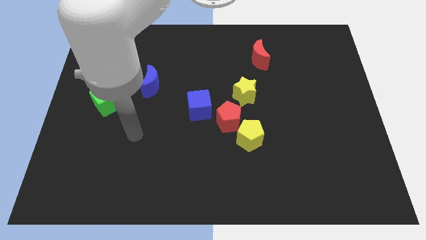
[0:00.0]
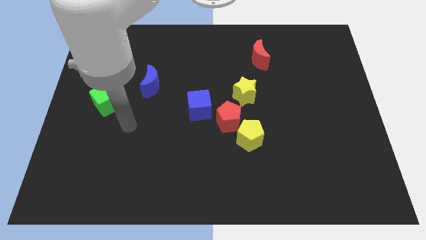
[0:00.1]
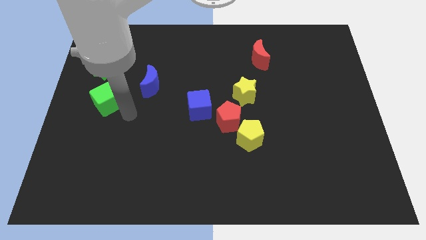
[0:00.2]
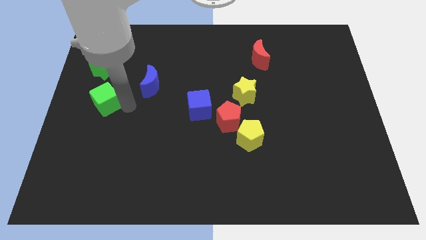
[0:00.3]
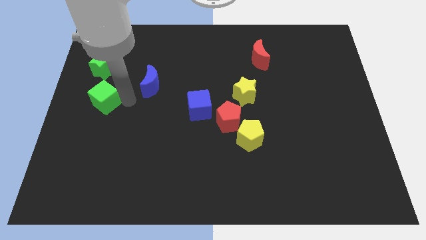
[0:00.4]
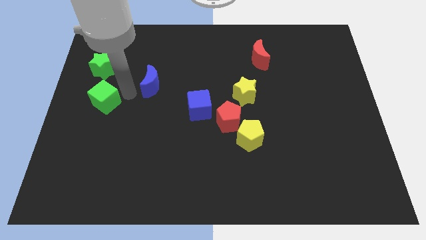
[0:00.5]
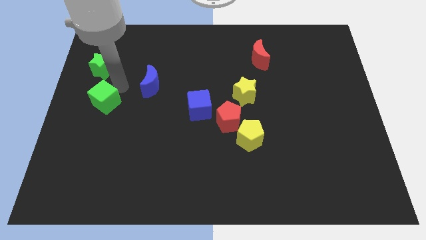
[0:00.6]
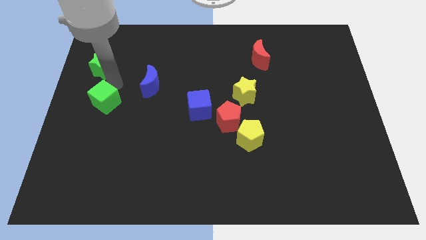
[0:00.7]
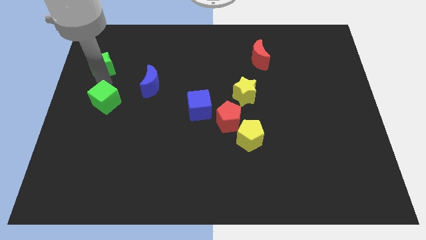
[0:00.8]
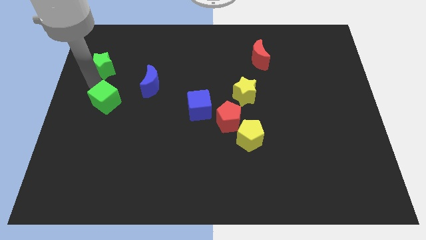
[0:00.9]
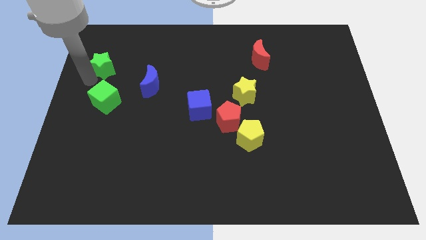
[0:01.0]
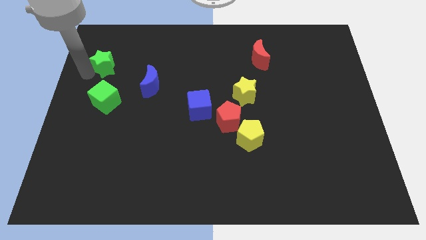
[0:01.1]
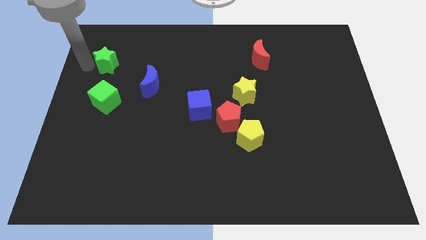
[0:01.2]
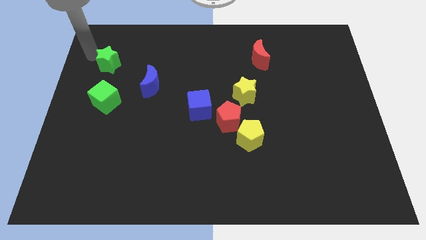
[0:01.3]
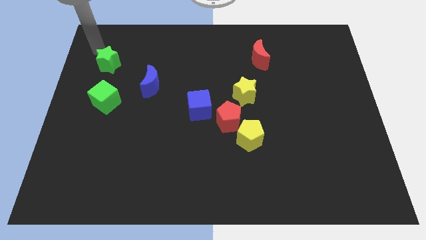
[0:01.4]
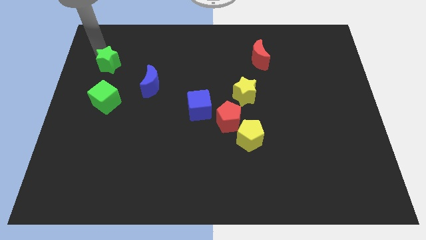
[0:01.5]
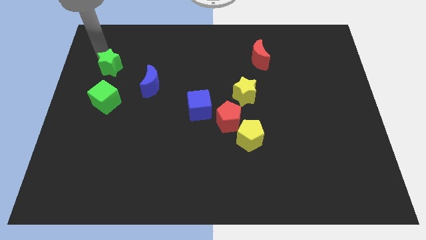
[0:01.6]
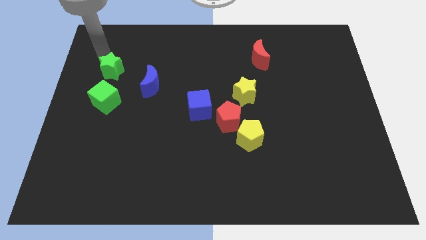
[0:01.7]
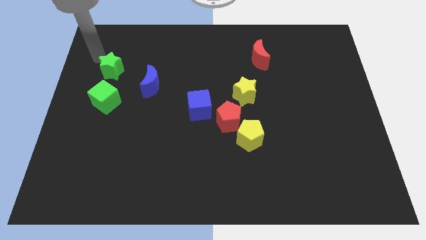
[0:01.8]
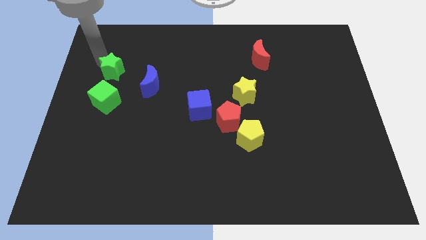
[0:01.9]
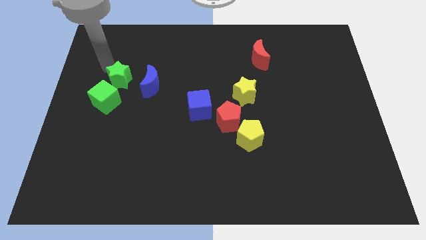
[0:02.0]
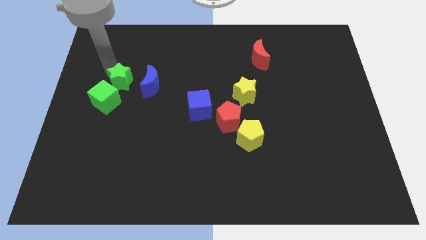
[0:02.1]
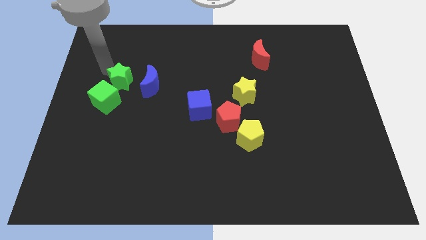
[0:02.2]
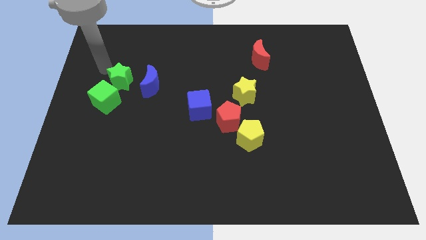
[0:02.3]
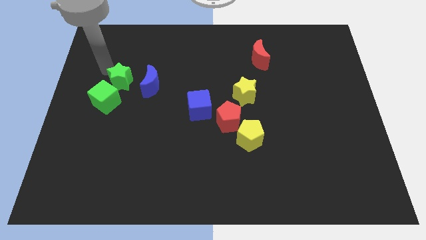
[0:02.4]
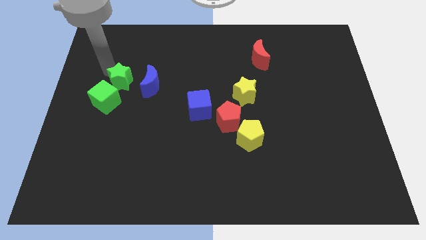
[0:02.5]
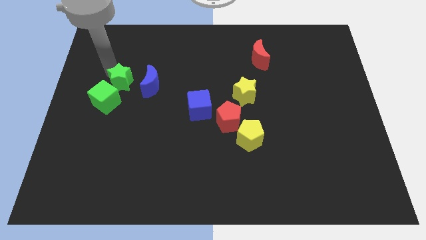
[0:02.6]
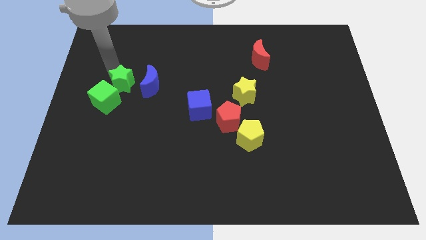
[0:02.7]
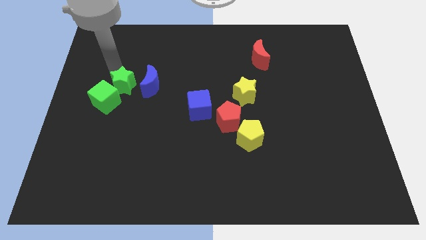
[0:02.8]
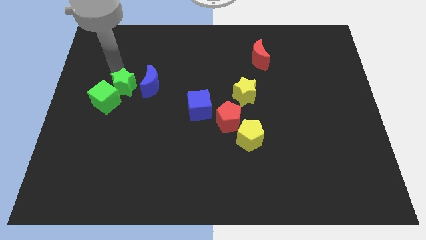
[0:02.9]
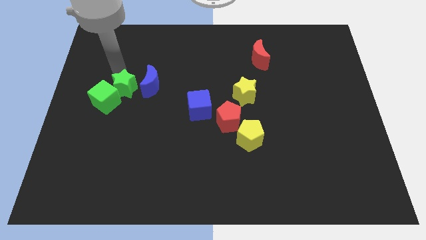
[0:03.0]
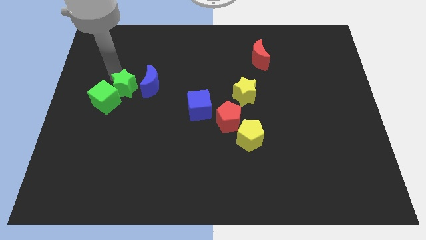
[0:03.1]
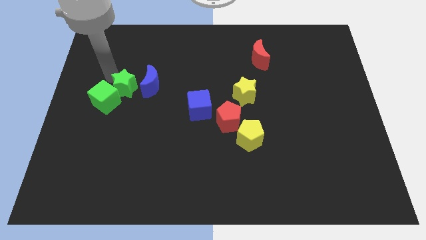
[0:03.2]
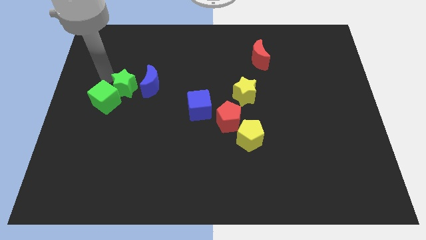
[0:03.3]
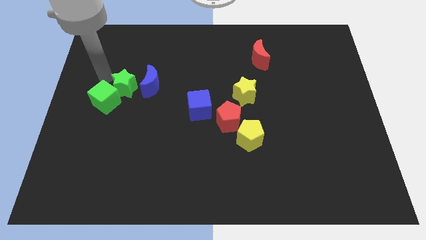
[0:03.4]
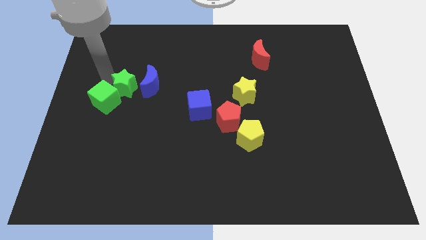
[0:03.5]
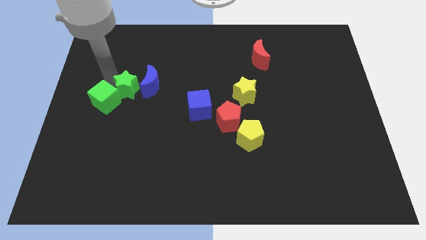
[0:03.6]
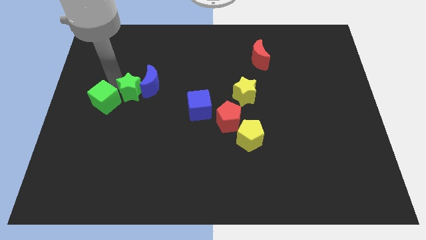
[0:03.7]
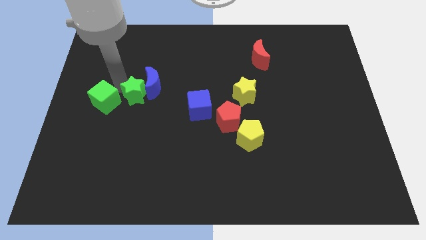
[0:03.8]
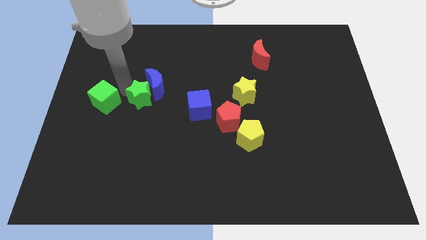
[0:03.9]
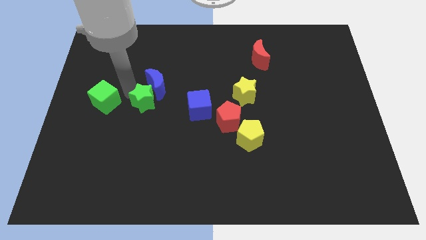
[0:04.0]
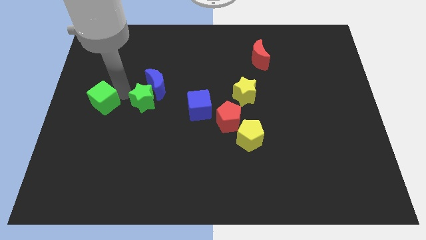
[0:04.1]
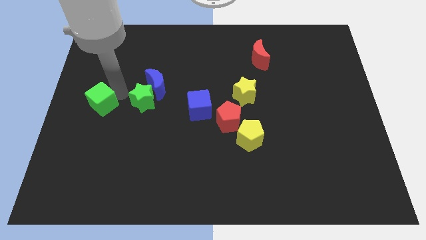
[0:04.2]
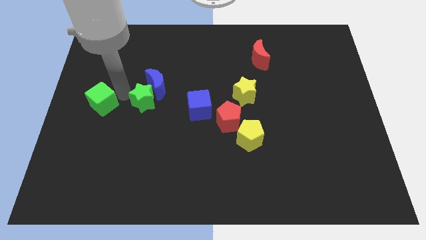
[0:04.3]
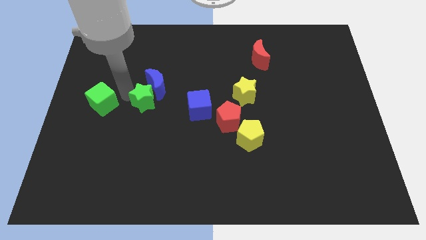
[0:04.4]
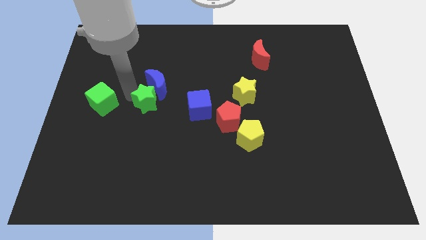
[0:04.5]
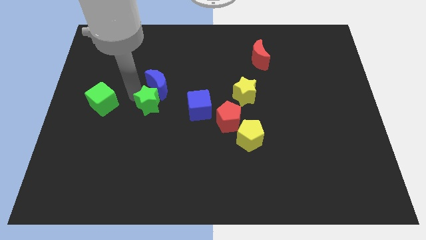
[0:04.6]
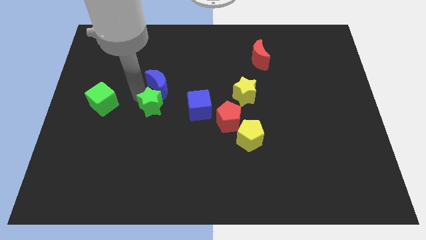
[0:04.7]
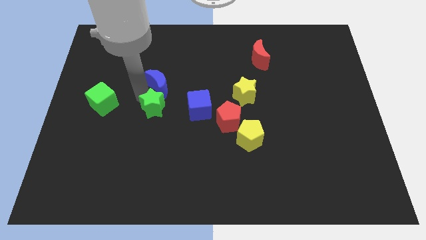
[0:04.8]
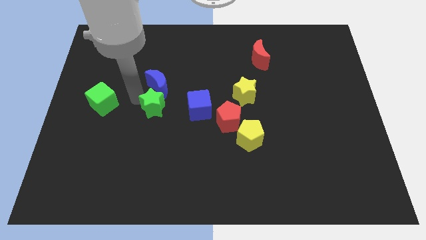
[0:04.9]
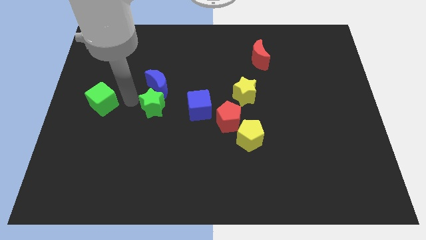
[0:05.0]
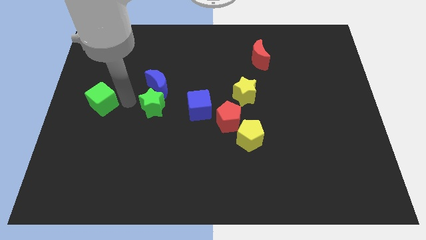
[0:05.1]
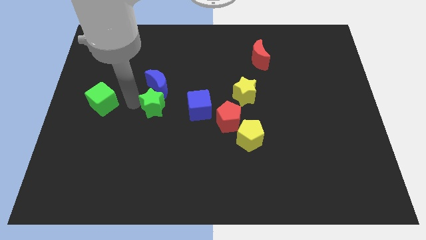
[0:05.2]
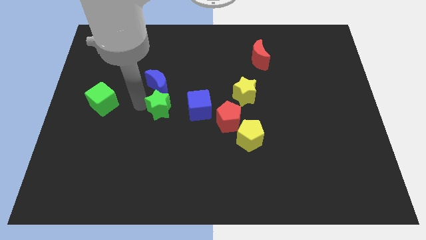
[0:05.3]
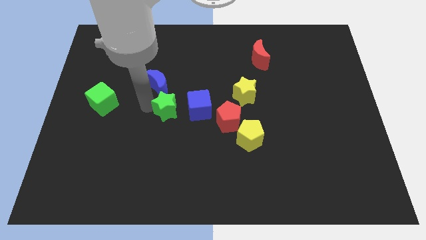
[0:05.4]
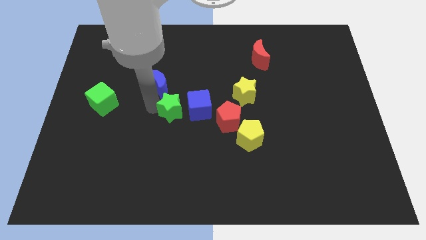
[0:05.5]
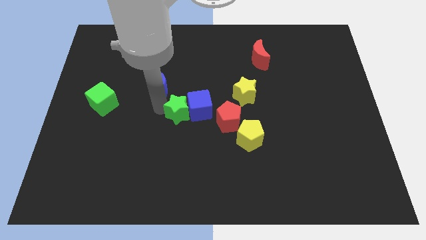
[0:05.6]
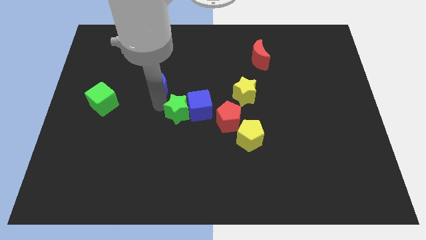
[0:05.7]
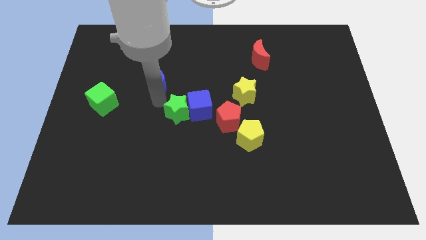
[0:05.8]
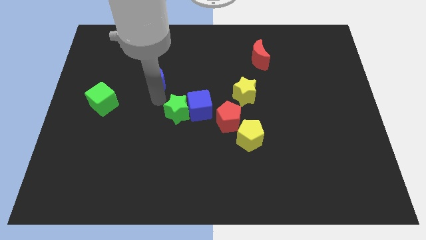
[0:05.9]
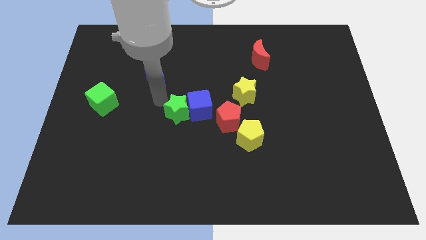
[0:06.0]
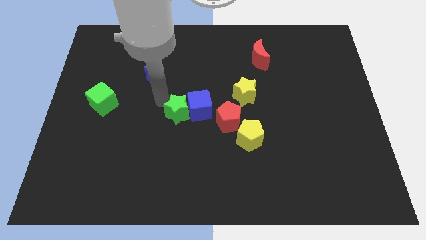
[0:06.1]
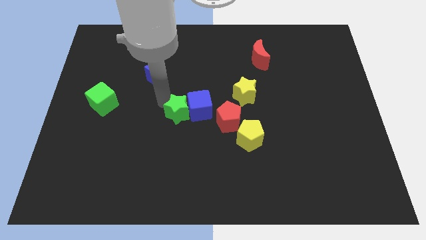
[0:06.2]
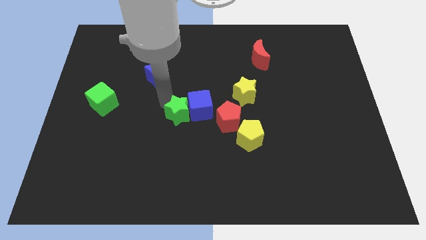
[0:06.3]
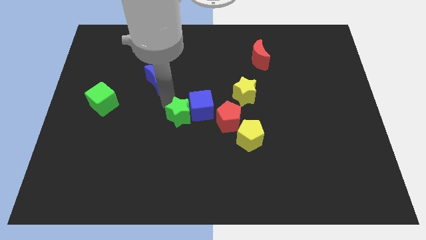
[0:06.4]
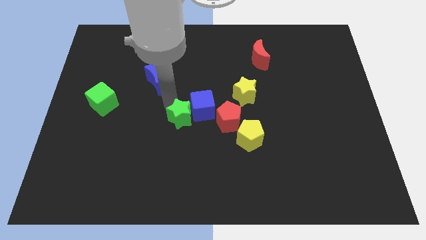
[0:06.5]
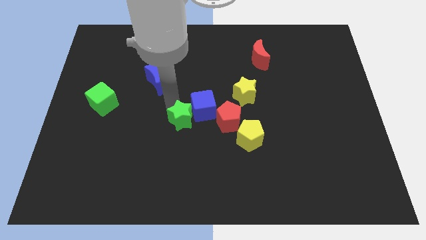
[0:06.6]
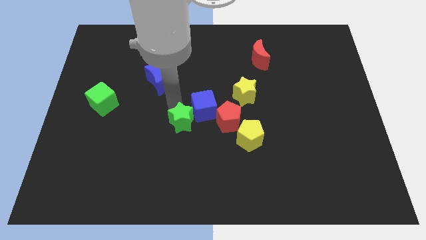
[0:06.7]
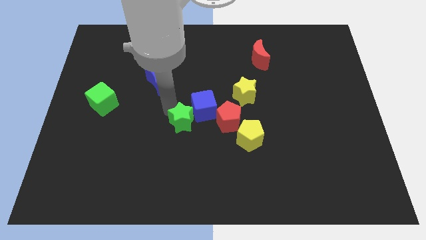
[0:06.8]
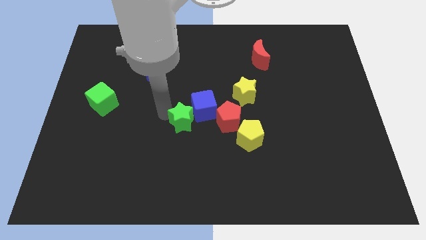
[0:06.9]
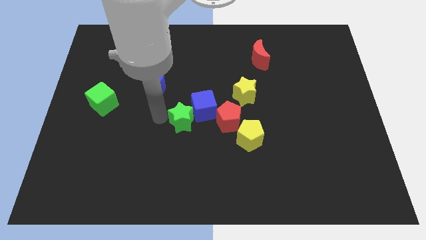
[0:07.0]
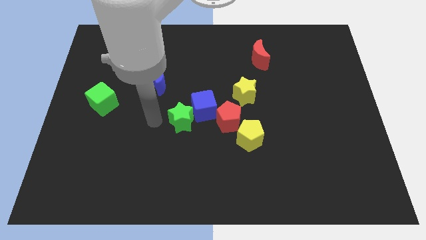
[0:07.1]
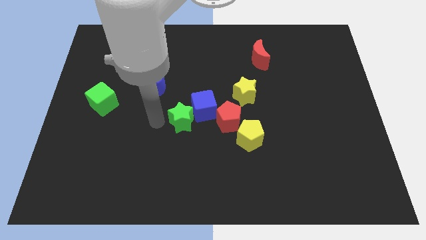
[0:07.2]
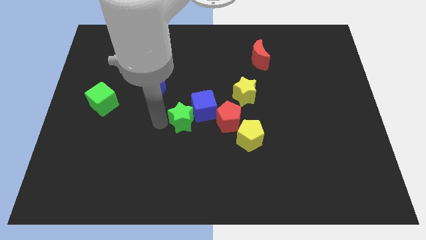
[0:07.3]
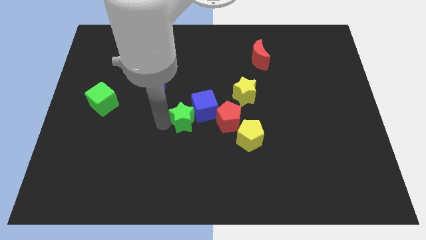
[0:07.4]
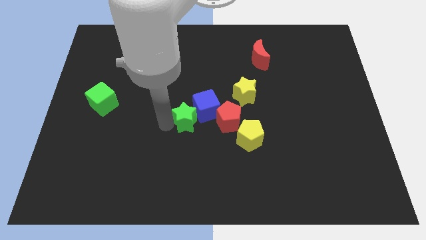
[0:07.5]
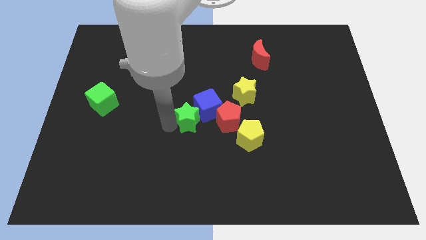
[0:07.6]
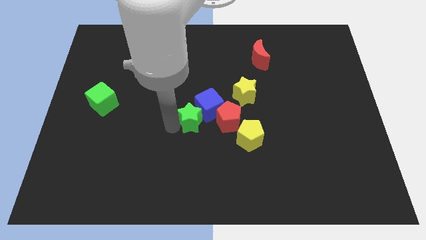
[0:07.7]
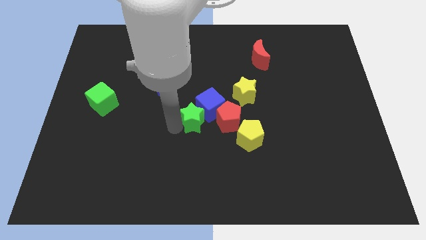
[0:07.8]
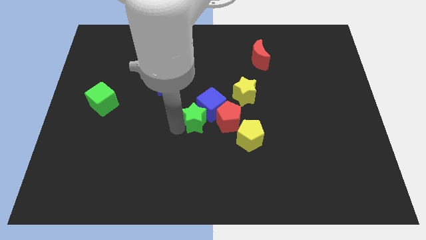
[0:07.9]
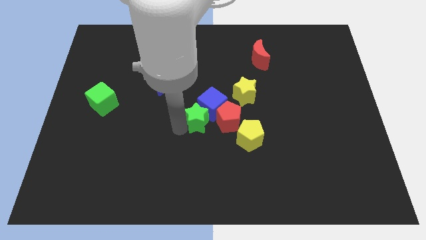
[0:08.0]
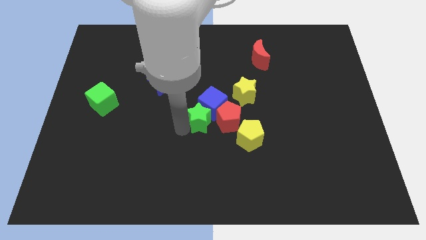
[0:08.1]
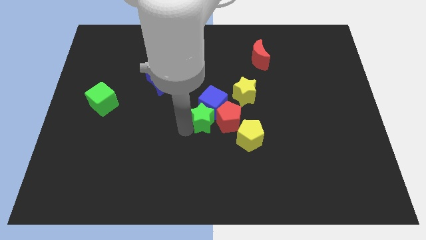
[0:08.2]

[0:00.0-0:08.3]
put the green star to the red pentagon
